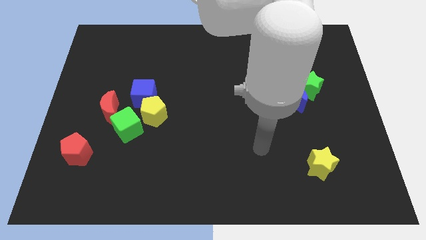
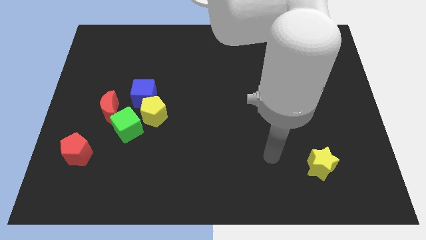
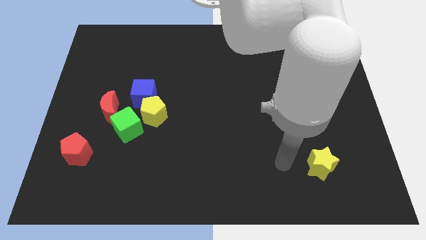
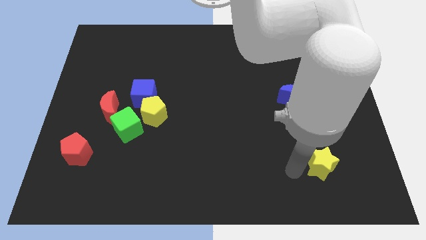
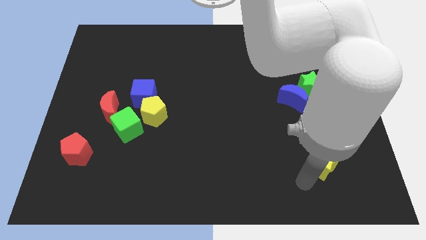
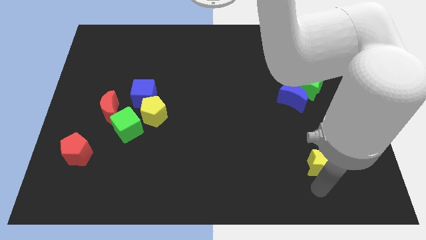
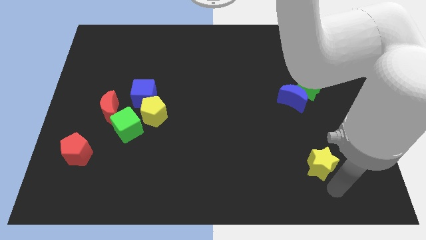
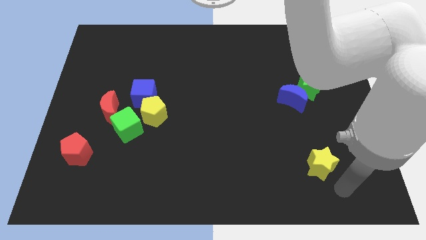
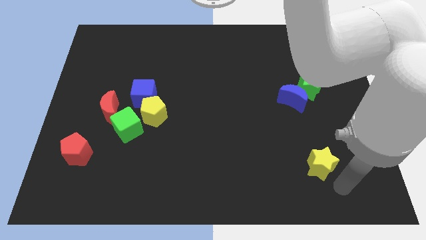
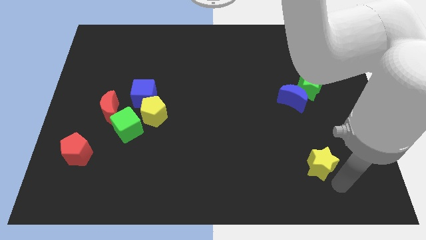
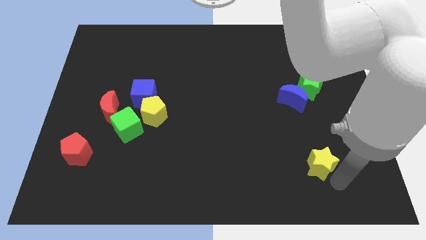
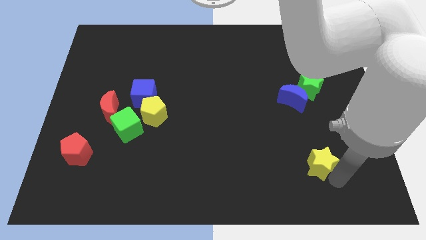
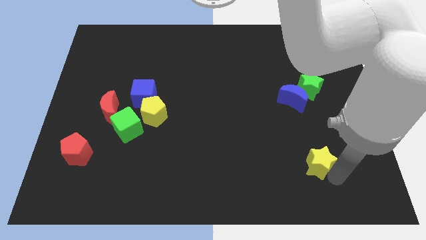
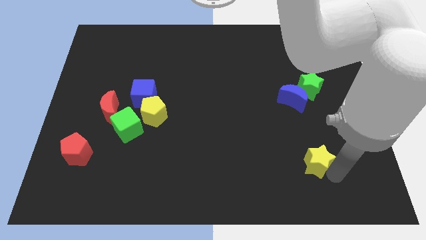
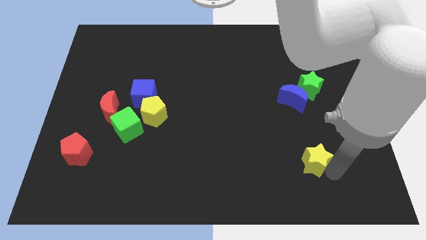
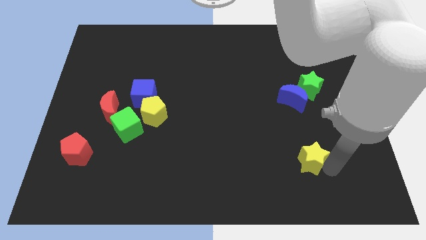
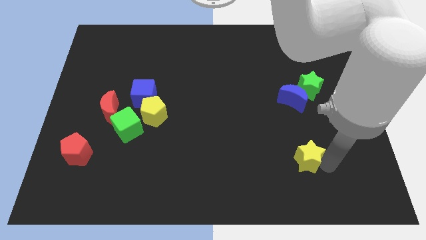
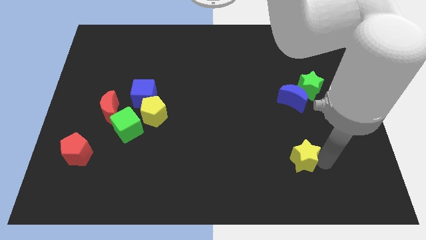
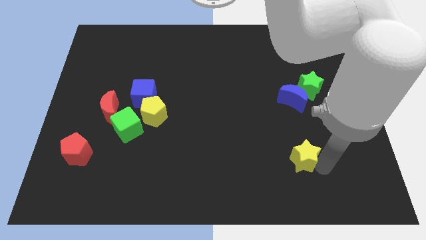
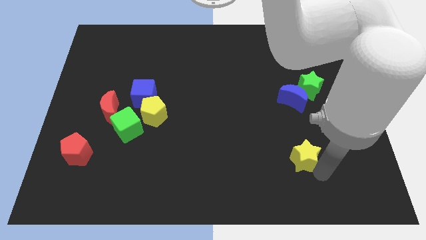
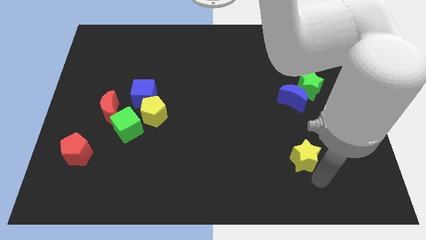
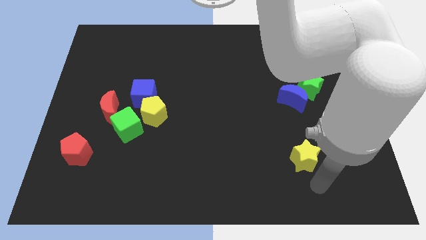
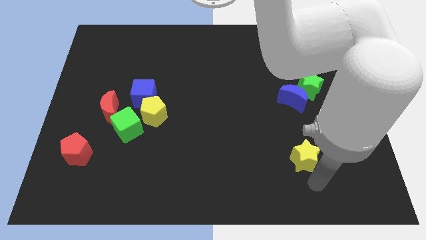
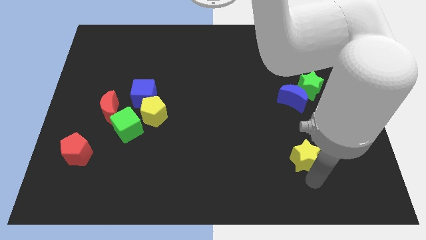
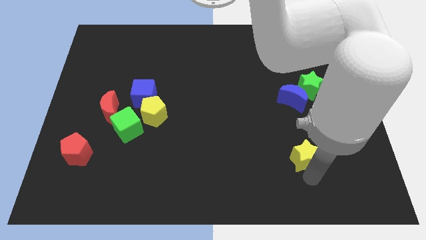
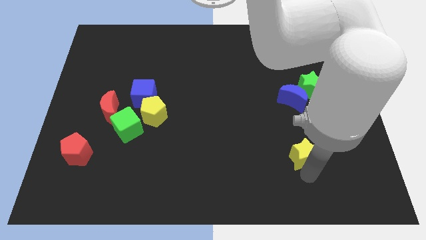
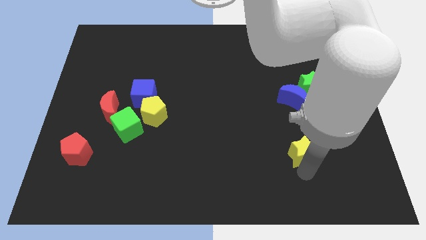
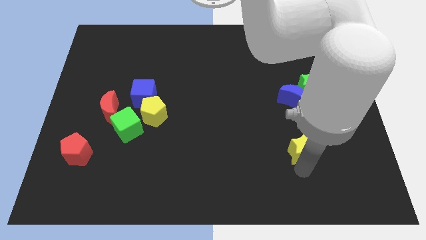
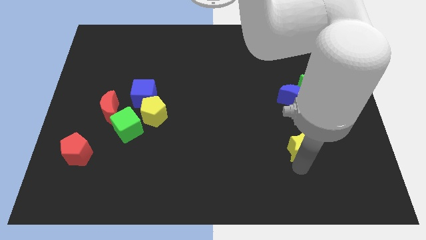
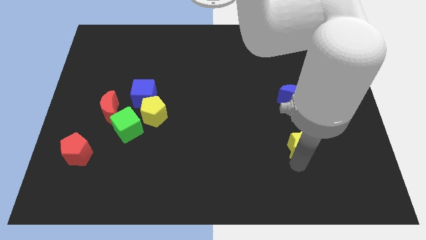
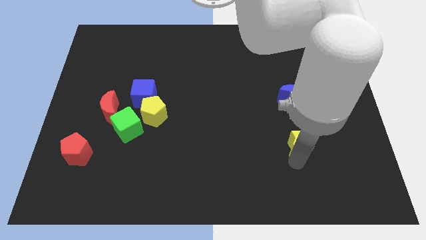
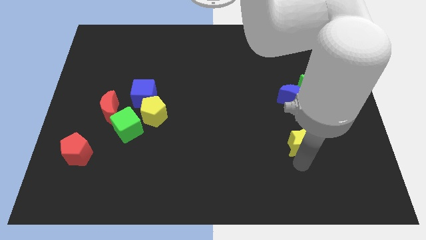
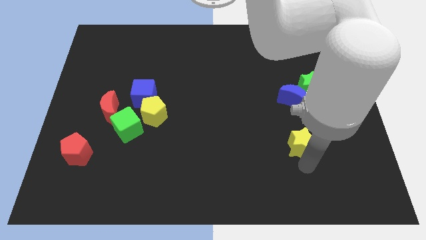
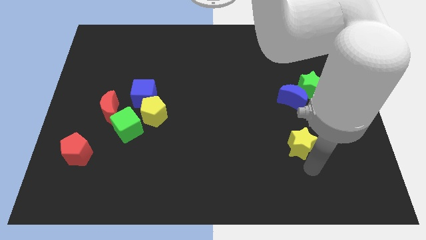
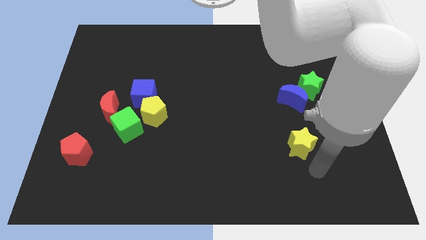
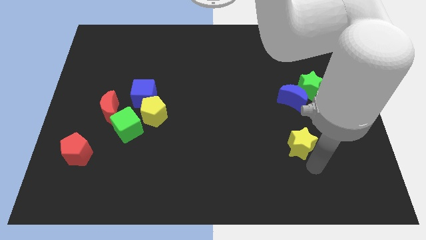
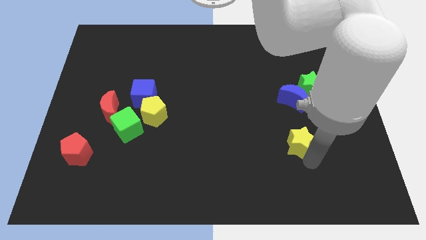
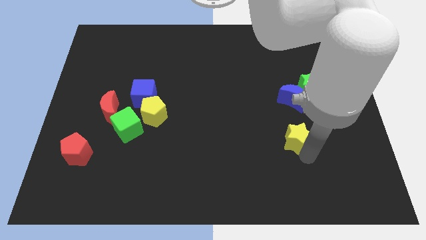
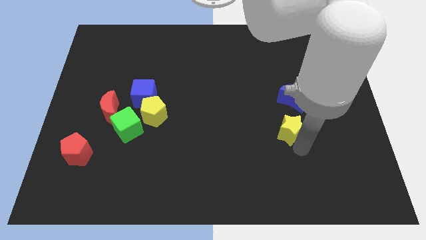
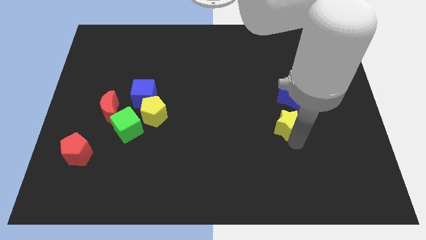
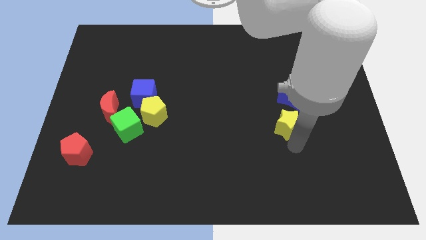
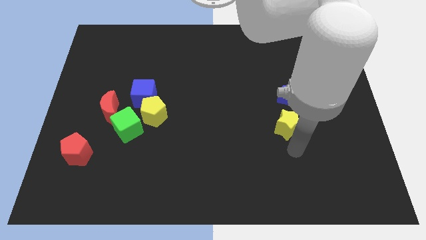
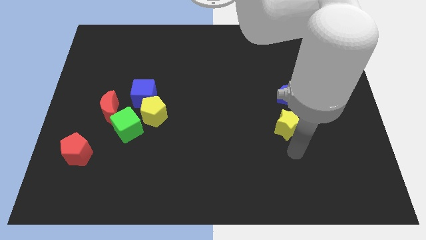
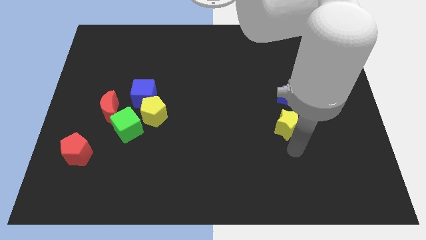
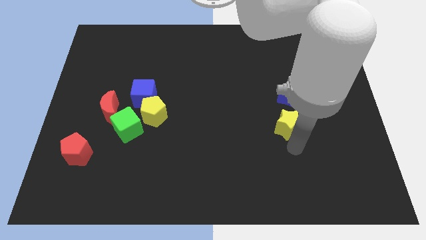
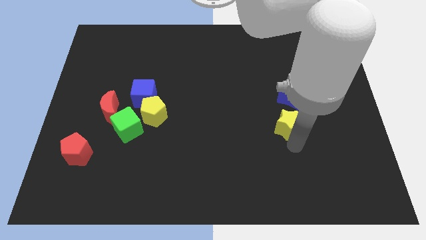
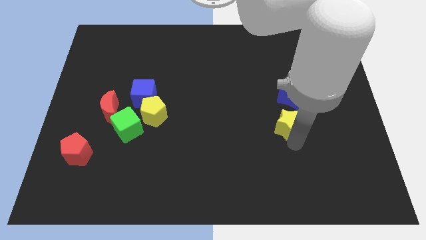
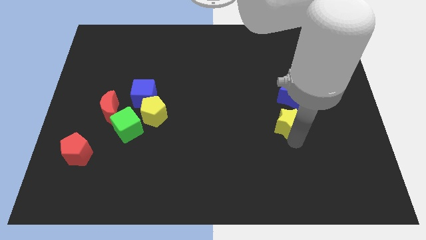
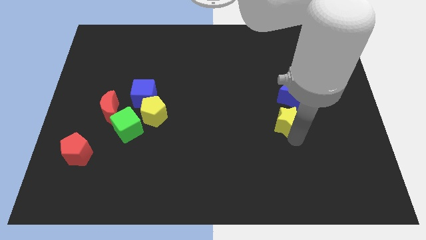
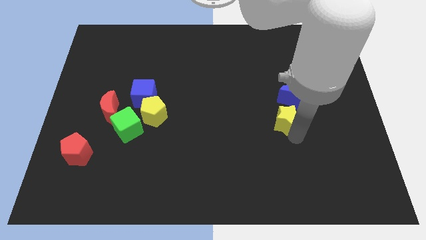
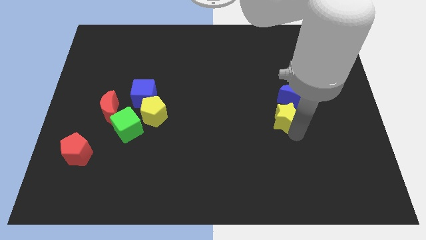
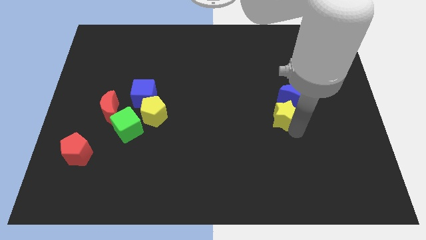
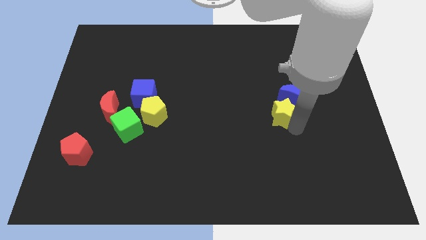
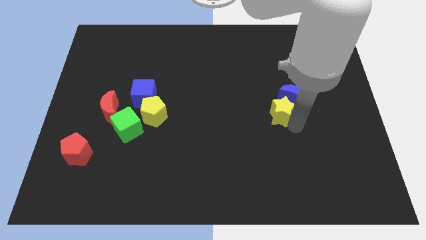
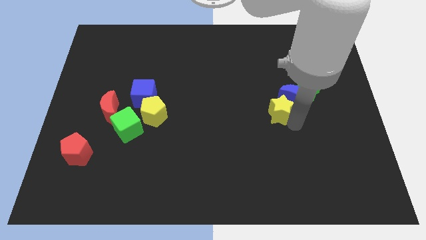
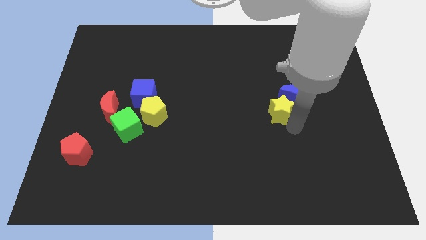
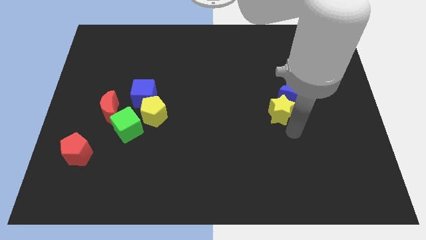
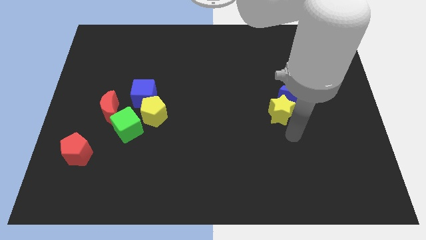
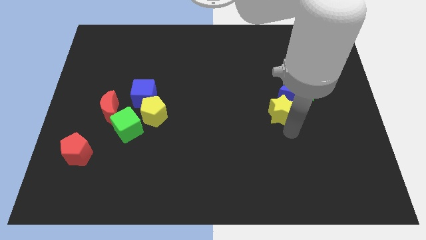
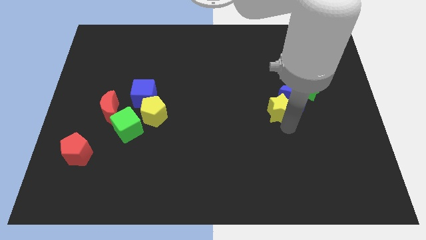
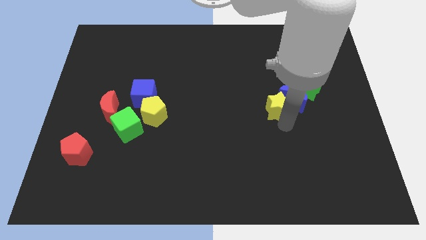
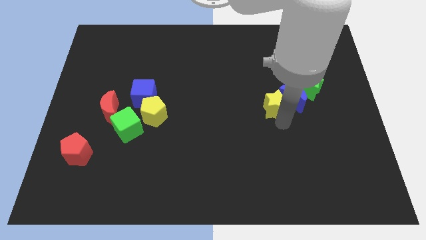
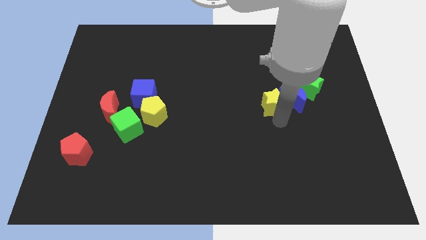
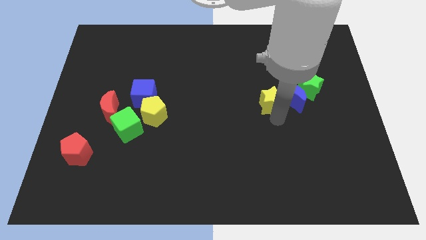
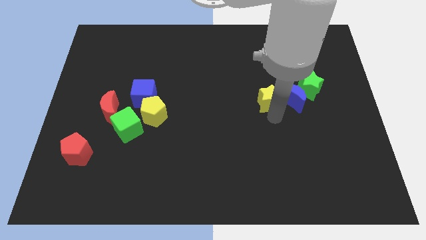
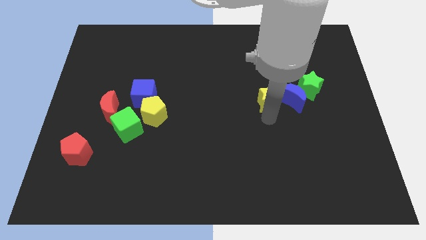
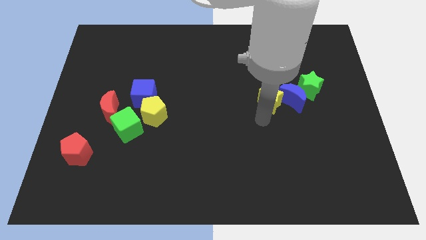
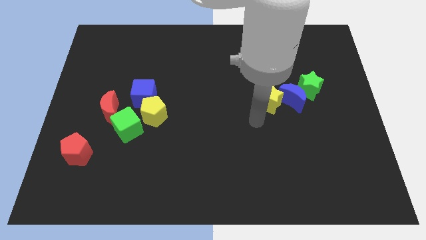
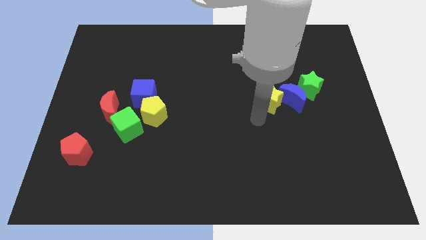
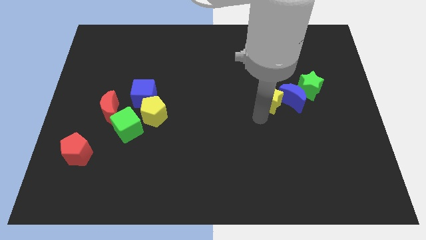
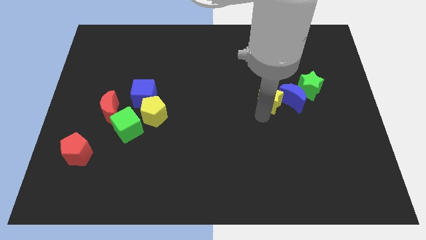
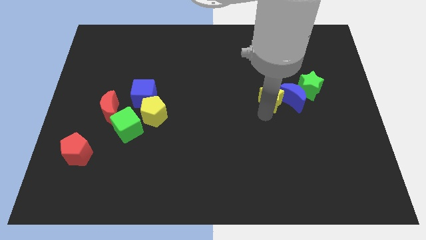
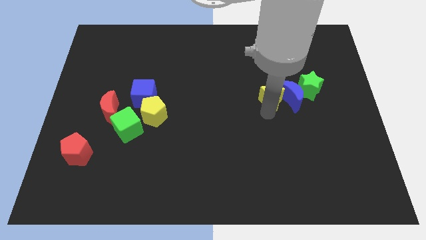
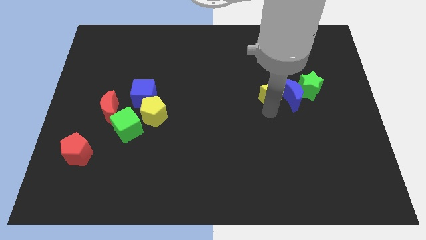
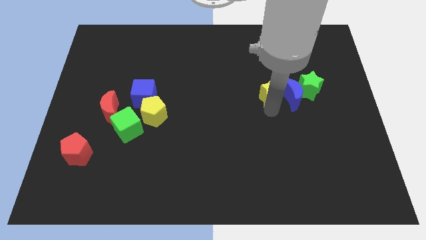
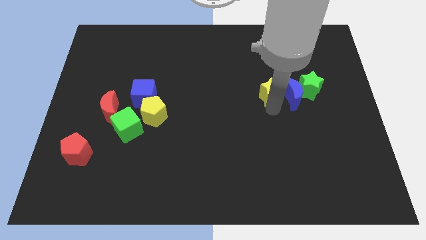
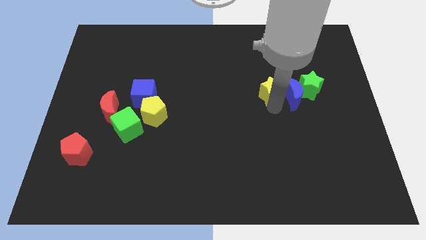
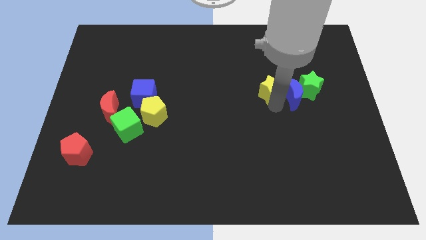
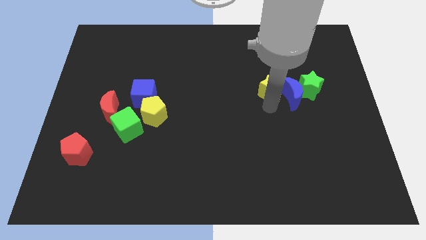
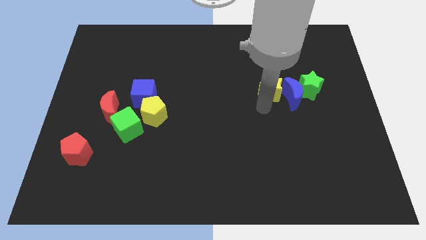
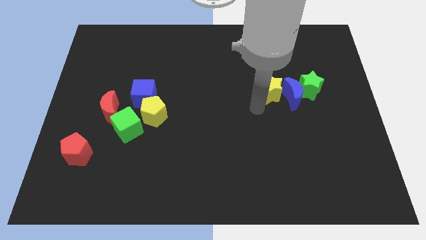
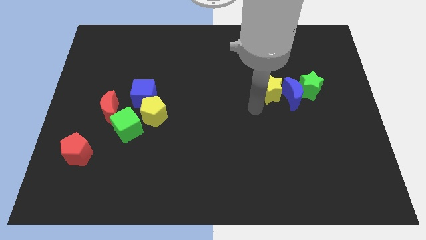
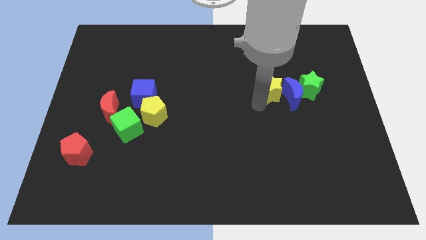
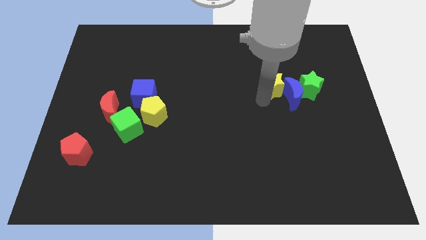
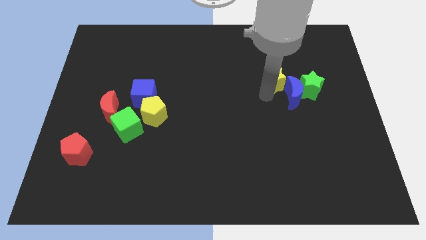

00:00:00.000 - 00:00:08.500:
push the yellow star upwards
